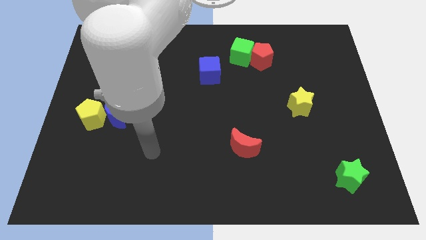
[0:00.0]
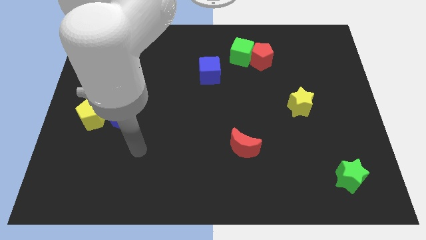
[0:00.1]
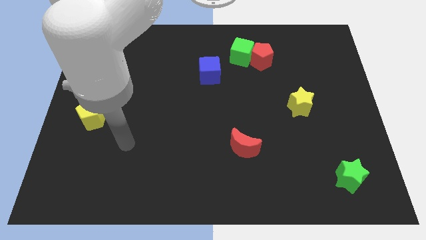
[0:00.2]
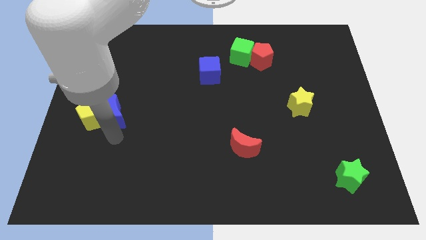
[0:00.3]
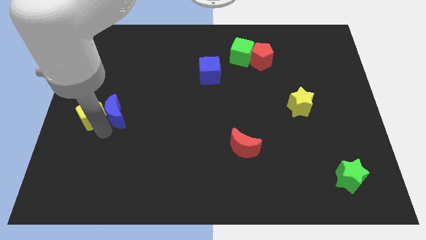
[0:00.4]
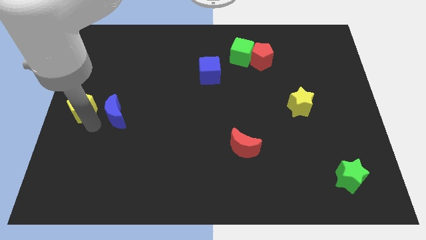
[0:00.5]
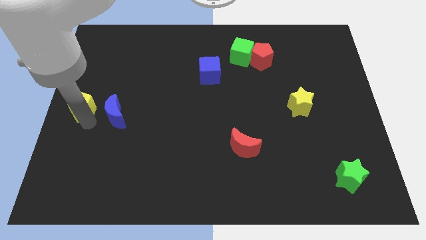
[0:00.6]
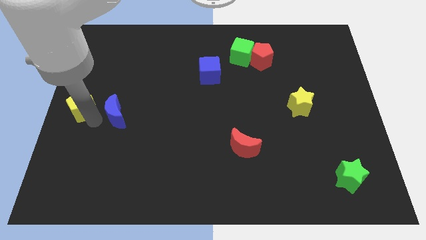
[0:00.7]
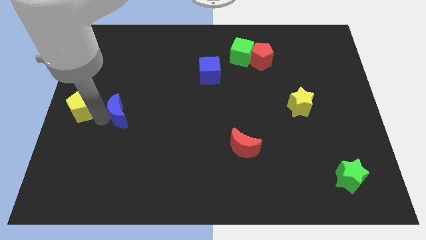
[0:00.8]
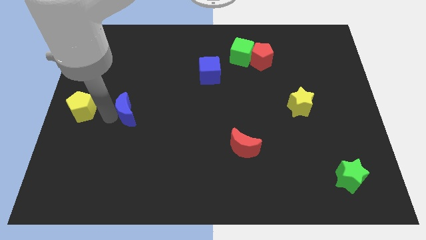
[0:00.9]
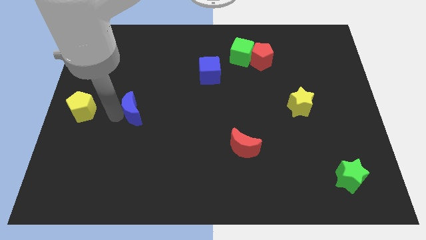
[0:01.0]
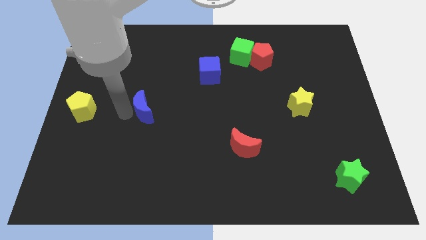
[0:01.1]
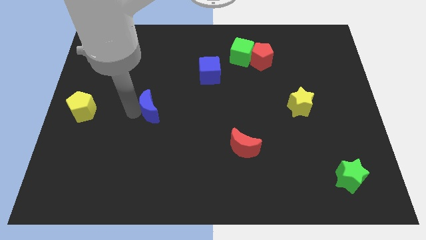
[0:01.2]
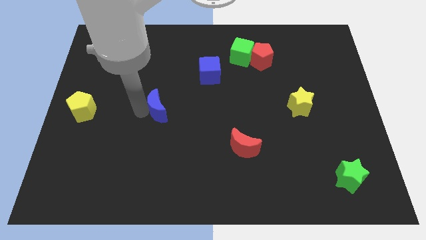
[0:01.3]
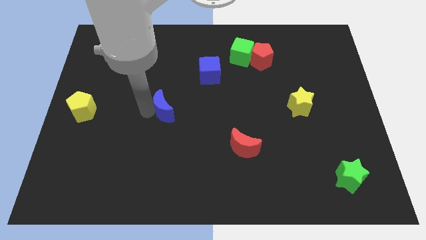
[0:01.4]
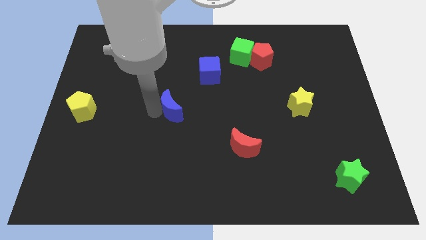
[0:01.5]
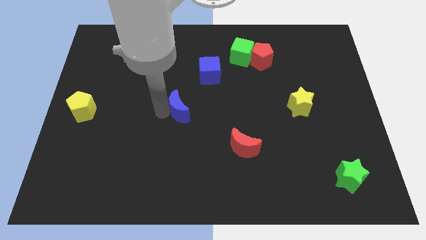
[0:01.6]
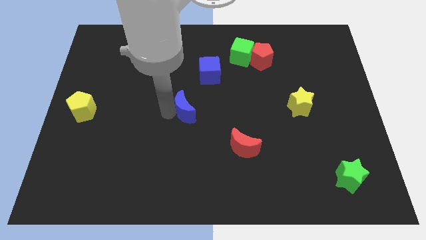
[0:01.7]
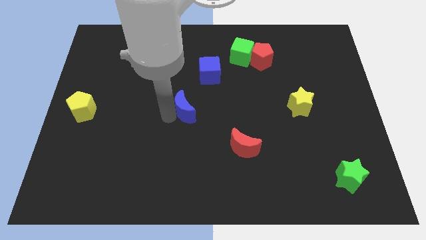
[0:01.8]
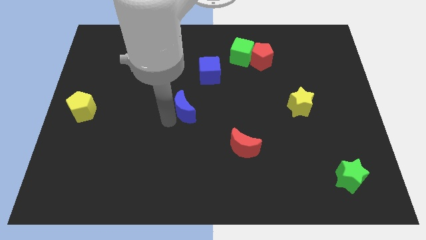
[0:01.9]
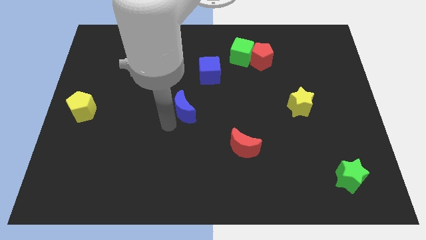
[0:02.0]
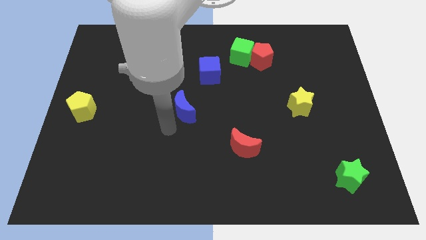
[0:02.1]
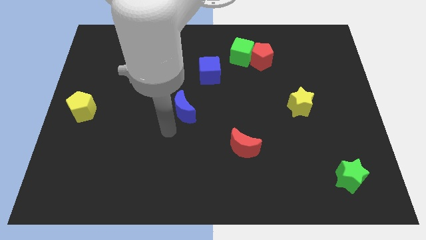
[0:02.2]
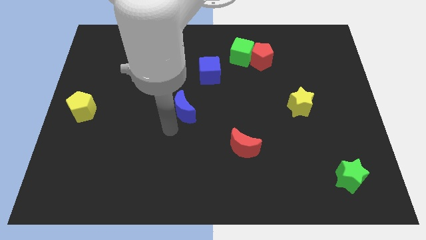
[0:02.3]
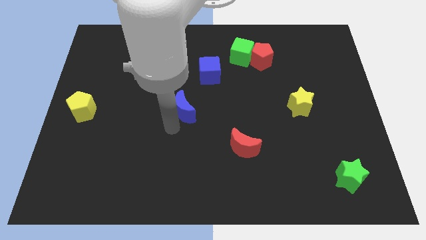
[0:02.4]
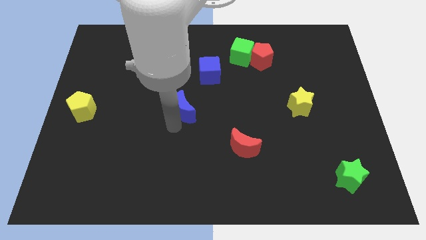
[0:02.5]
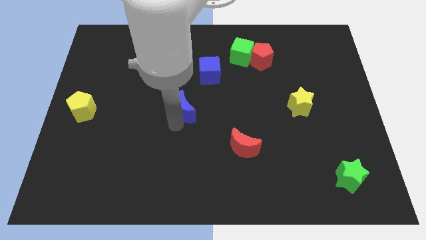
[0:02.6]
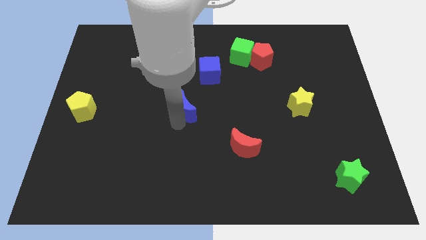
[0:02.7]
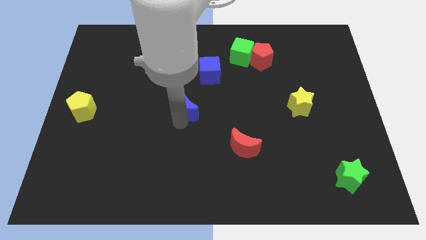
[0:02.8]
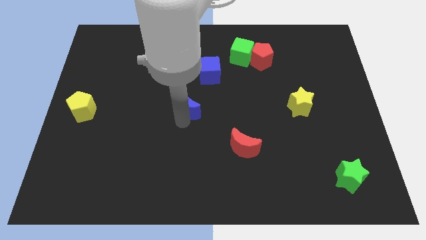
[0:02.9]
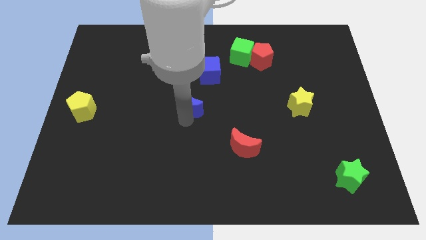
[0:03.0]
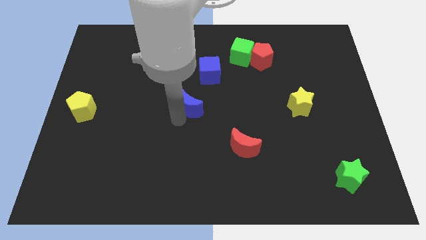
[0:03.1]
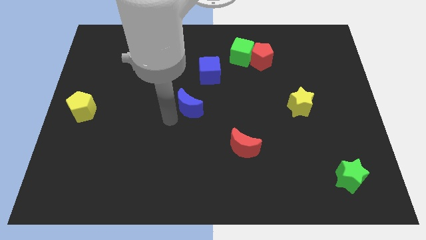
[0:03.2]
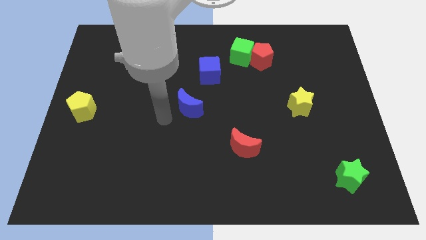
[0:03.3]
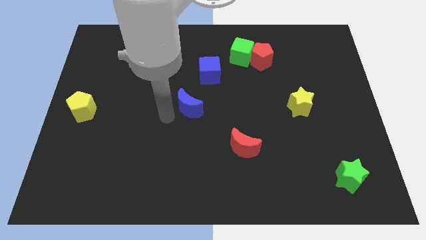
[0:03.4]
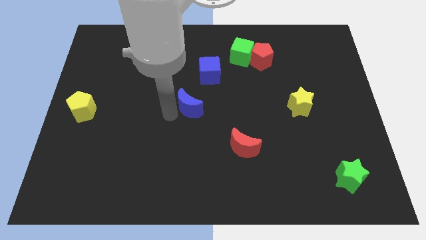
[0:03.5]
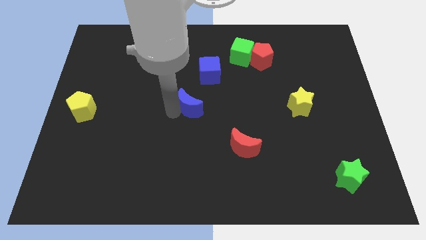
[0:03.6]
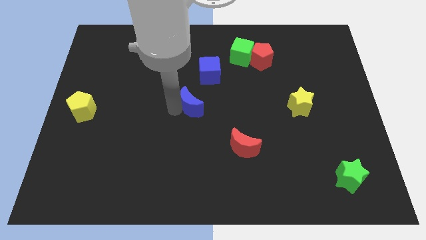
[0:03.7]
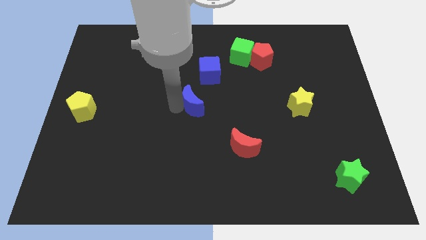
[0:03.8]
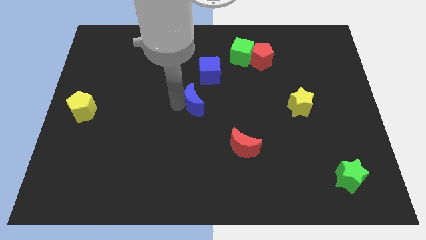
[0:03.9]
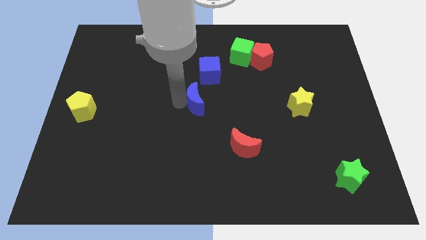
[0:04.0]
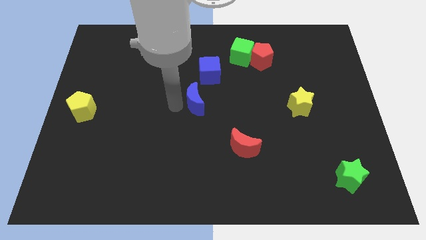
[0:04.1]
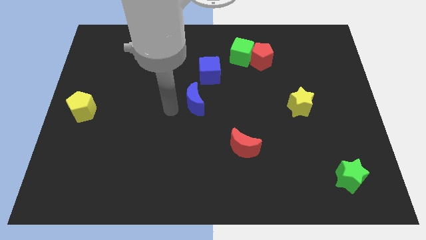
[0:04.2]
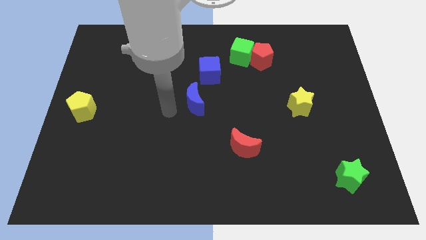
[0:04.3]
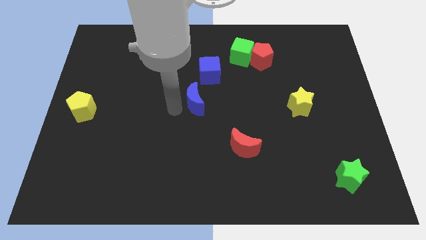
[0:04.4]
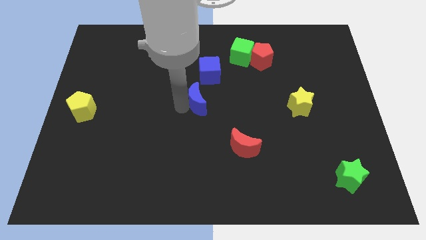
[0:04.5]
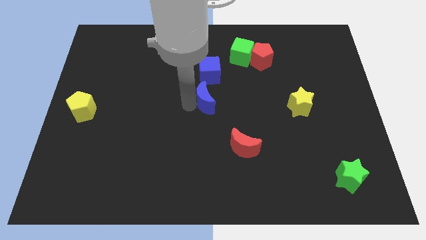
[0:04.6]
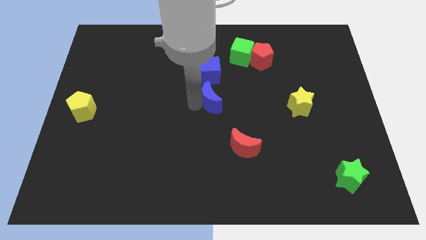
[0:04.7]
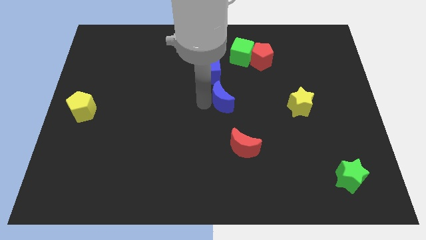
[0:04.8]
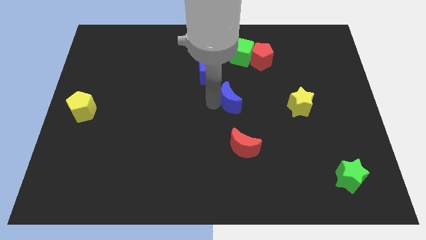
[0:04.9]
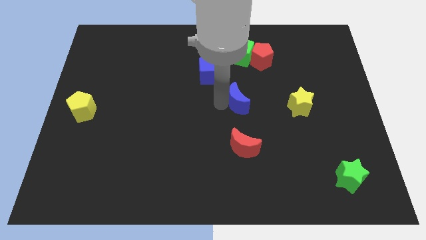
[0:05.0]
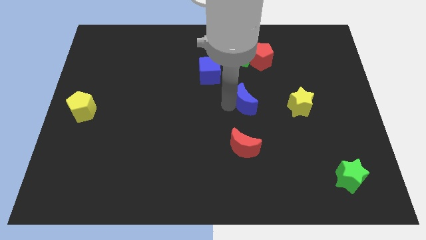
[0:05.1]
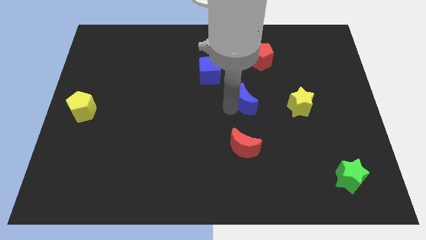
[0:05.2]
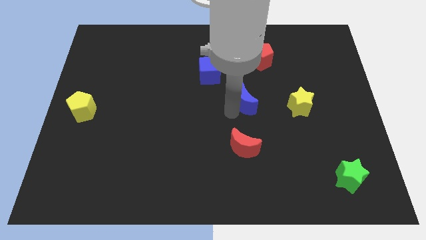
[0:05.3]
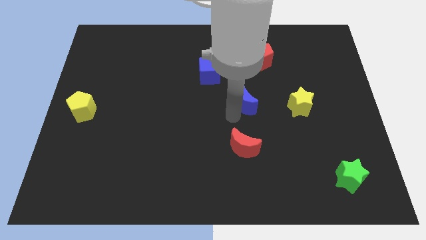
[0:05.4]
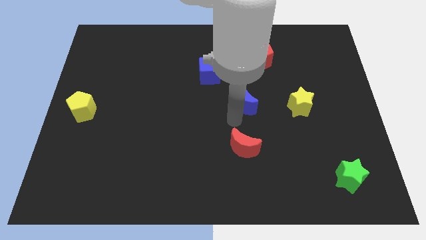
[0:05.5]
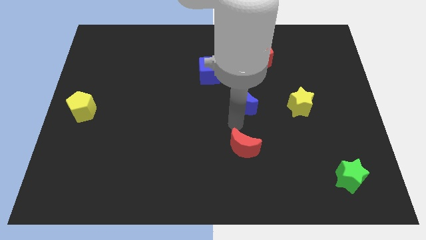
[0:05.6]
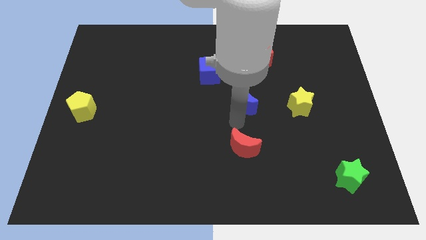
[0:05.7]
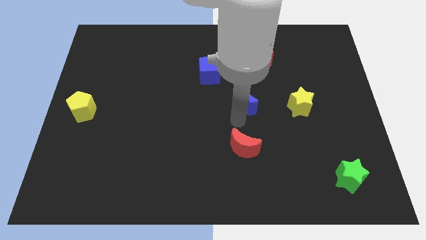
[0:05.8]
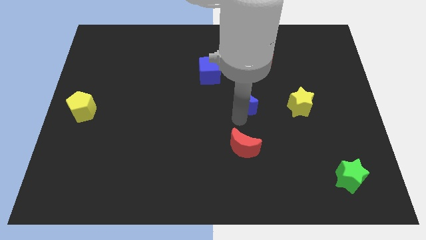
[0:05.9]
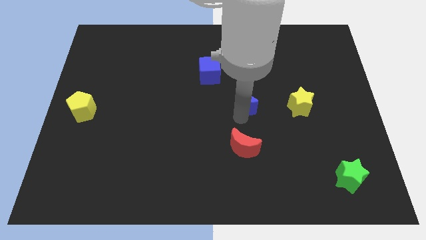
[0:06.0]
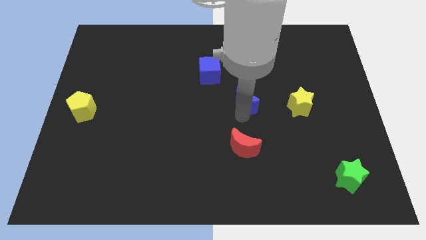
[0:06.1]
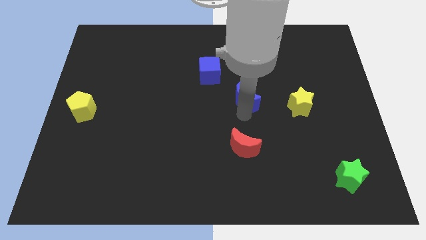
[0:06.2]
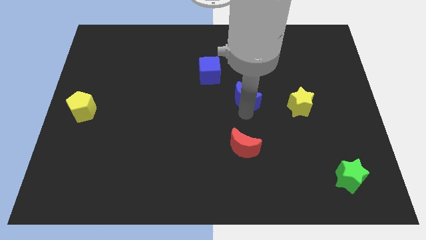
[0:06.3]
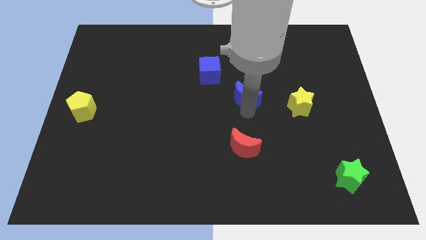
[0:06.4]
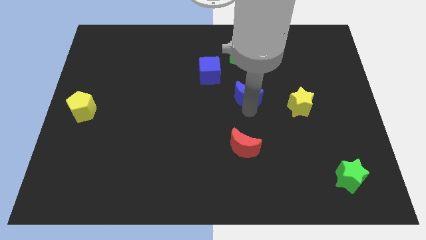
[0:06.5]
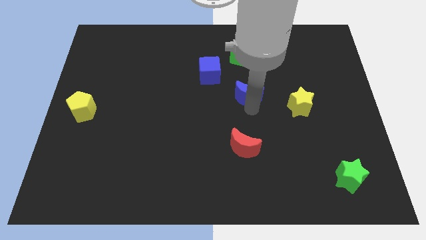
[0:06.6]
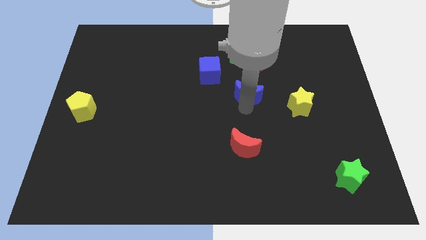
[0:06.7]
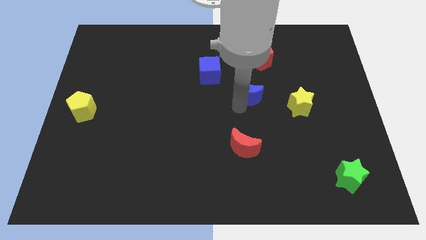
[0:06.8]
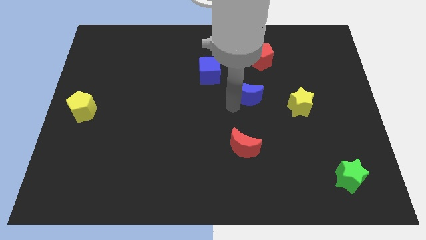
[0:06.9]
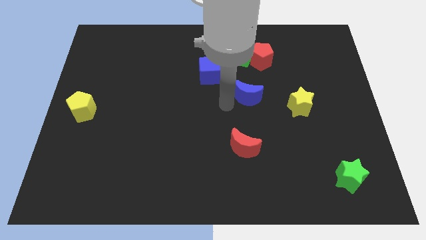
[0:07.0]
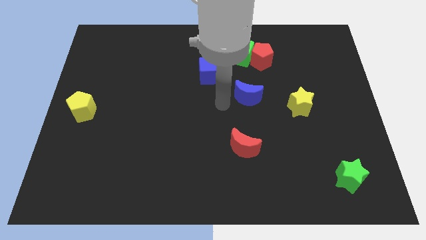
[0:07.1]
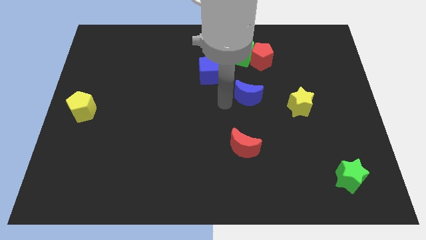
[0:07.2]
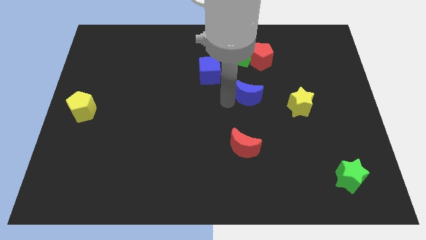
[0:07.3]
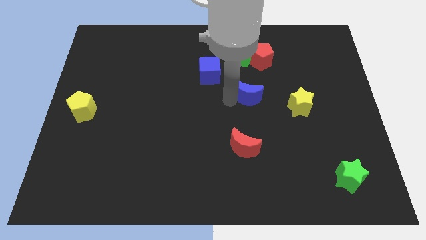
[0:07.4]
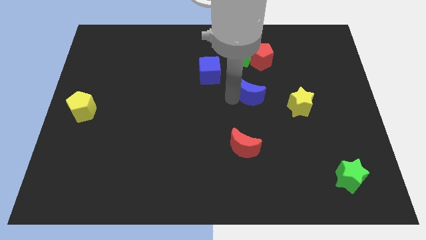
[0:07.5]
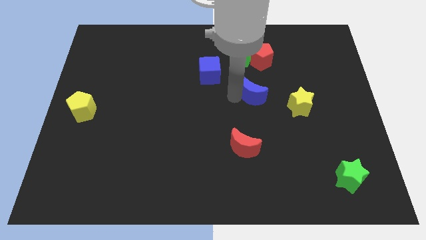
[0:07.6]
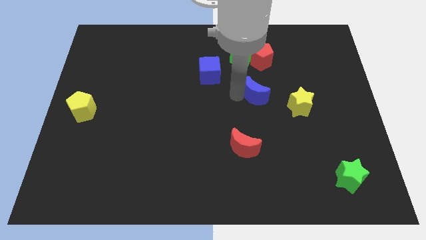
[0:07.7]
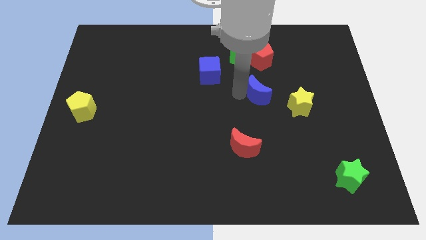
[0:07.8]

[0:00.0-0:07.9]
put the blue moon to the top left of the yellow star
